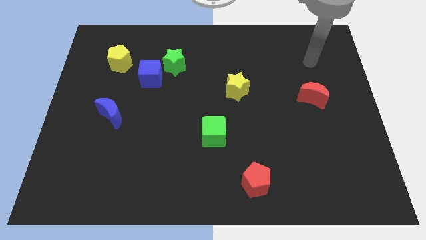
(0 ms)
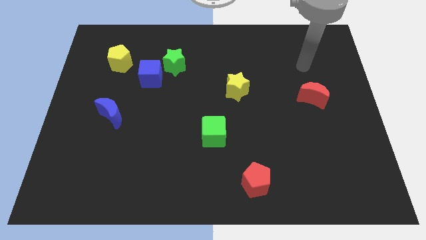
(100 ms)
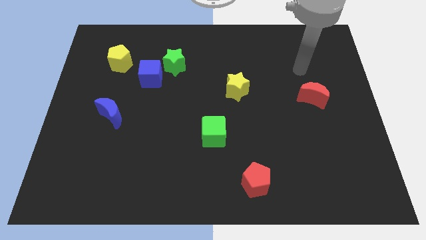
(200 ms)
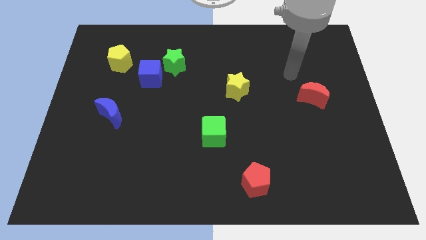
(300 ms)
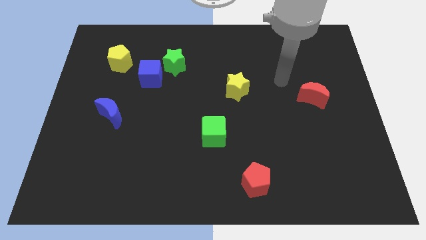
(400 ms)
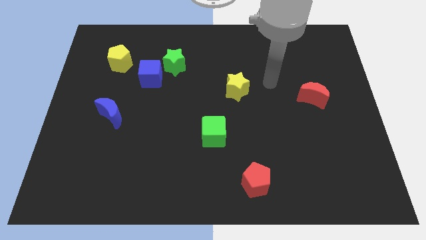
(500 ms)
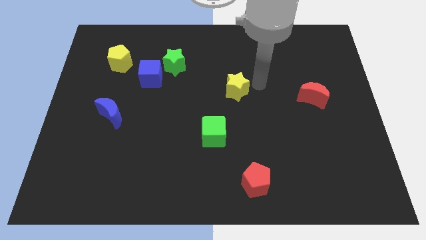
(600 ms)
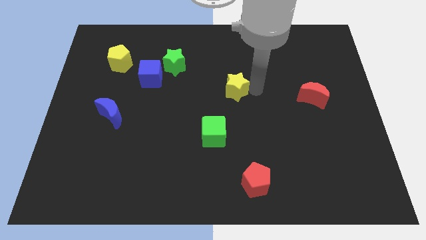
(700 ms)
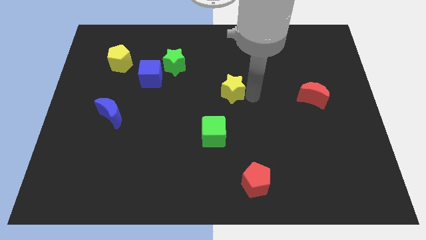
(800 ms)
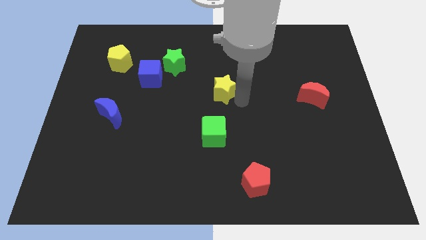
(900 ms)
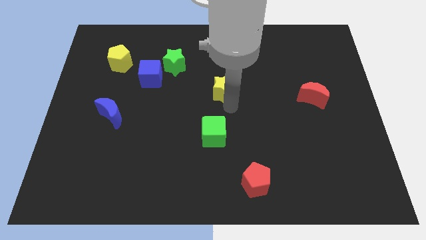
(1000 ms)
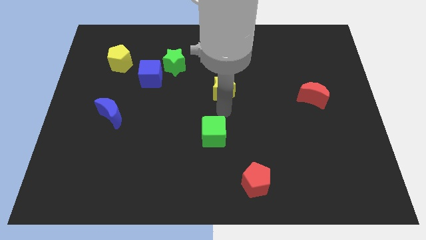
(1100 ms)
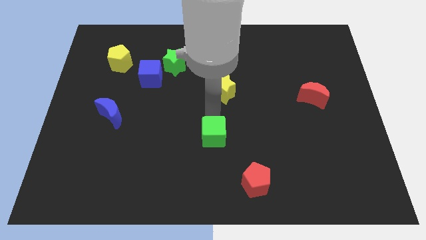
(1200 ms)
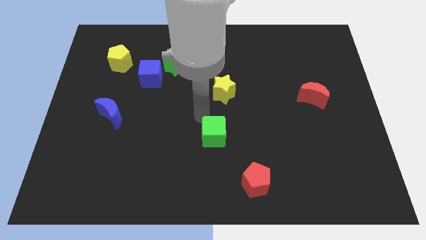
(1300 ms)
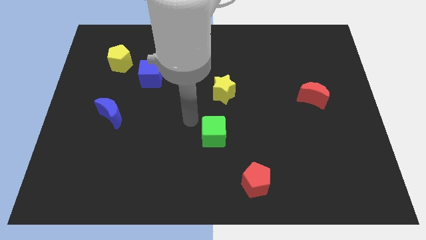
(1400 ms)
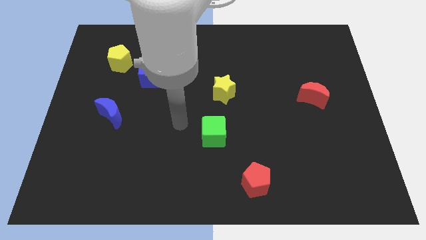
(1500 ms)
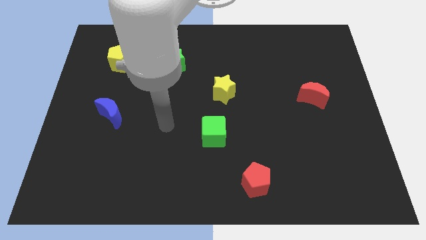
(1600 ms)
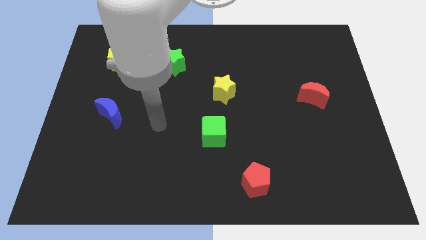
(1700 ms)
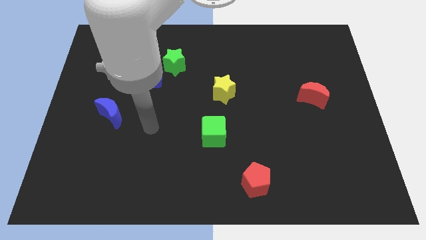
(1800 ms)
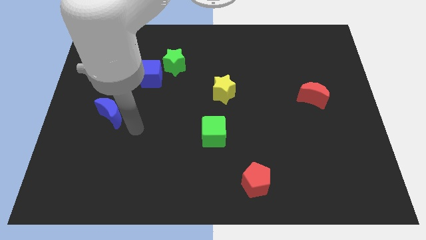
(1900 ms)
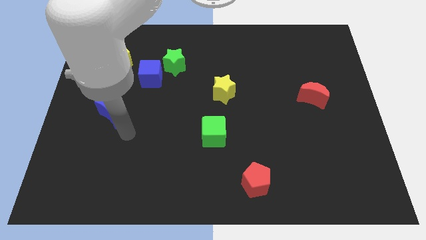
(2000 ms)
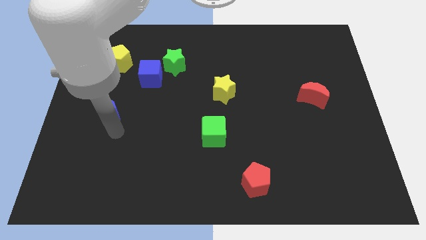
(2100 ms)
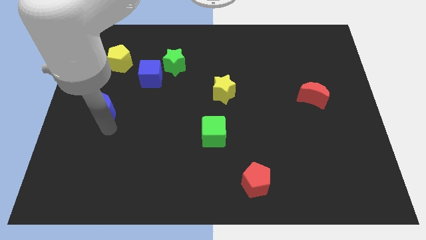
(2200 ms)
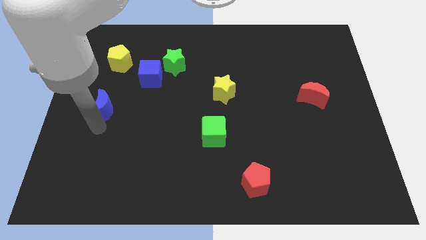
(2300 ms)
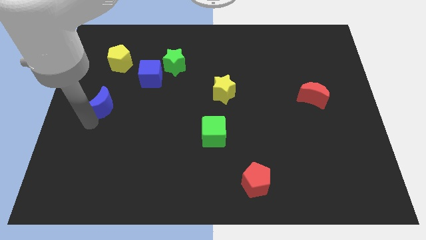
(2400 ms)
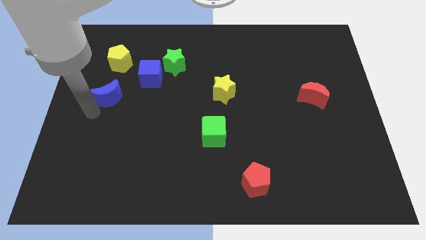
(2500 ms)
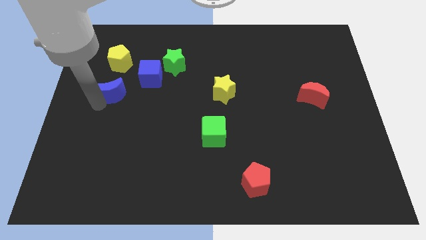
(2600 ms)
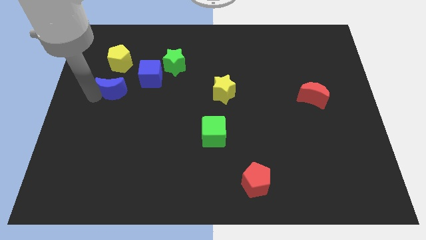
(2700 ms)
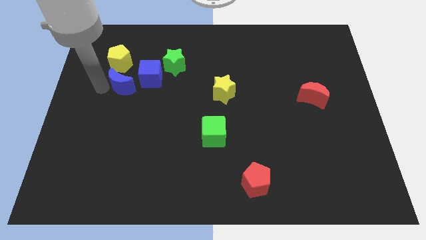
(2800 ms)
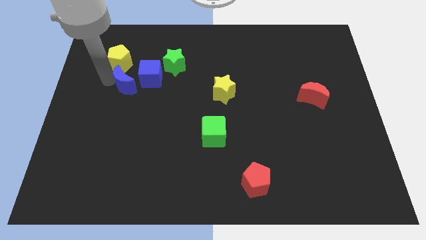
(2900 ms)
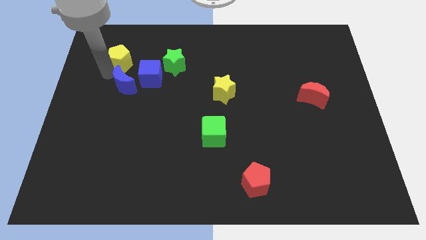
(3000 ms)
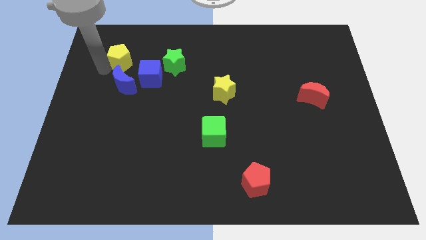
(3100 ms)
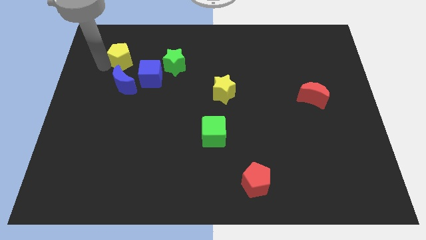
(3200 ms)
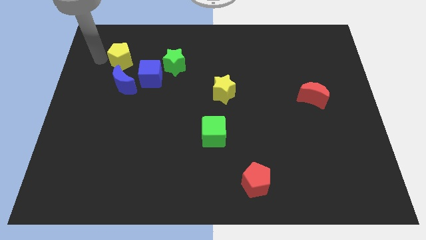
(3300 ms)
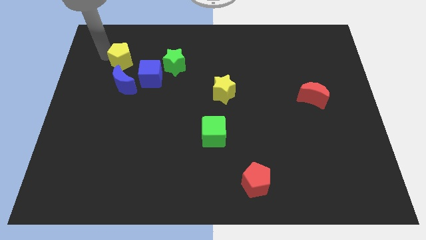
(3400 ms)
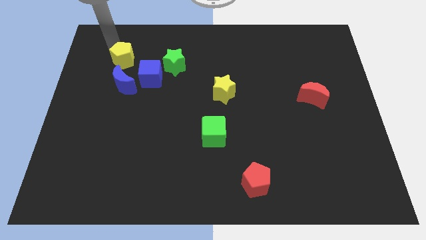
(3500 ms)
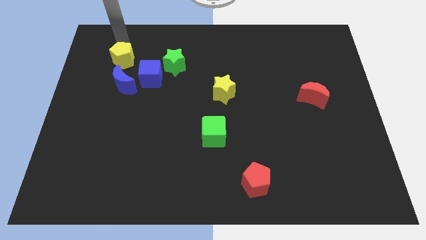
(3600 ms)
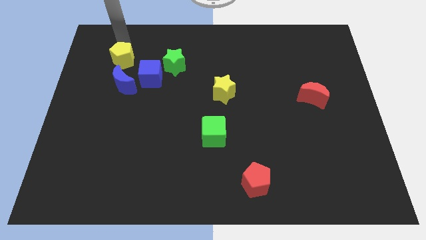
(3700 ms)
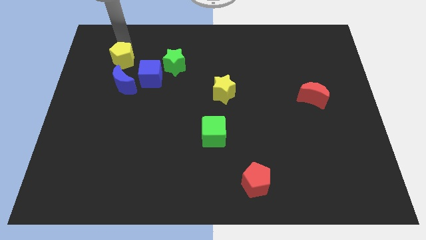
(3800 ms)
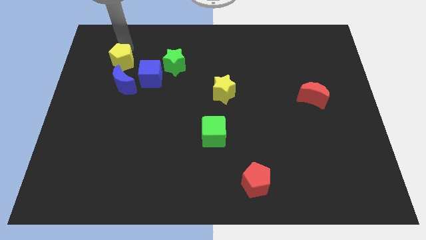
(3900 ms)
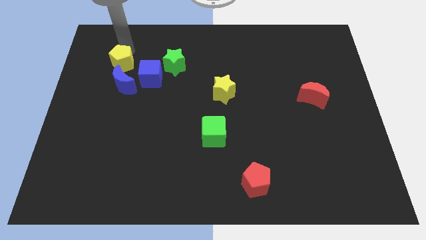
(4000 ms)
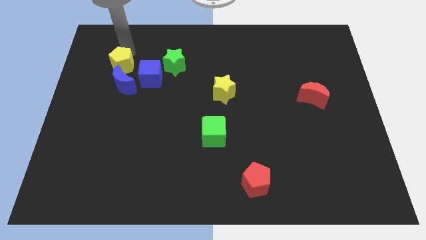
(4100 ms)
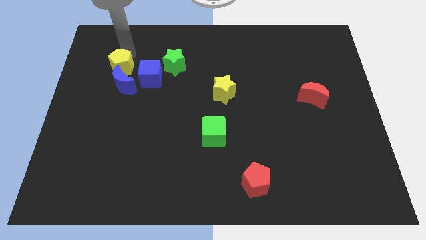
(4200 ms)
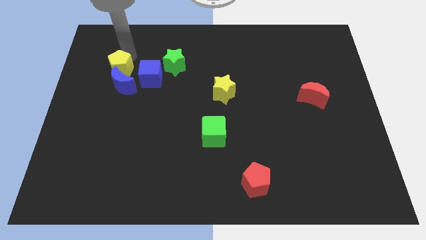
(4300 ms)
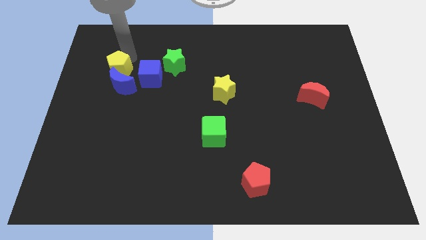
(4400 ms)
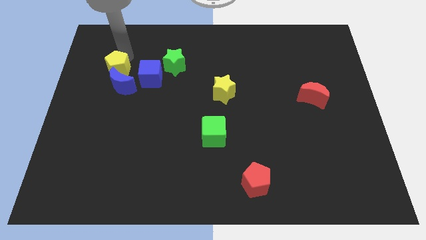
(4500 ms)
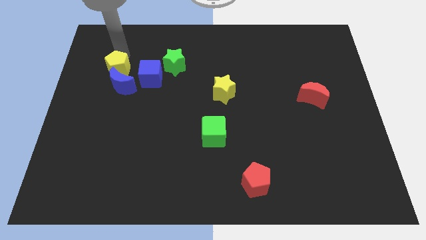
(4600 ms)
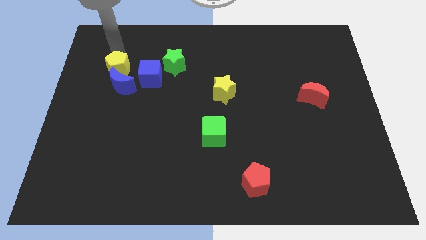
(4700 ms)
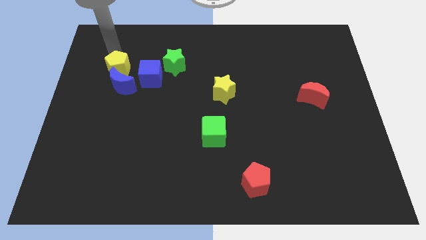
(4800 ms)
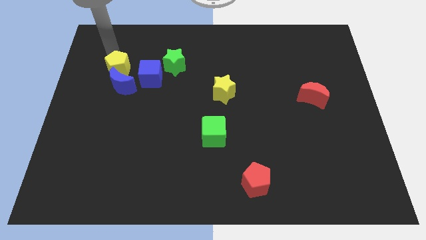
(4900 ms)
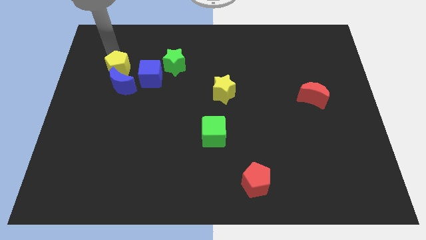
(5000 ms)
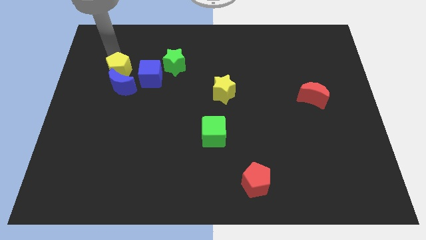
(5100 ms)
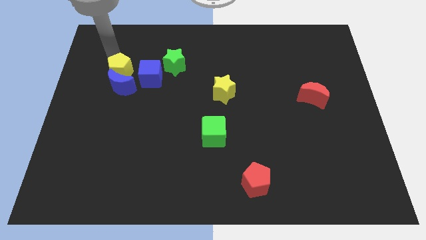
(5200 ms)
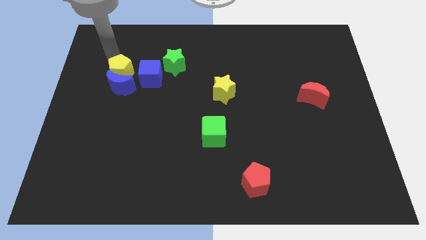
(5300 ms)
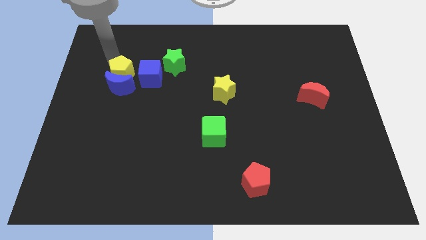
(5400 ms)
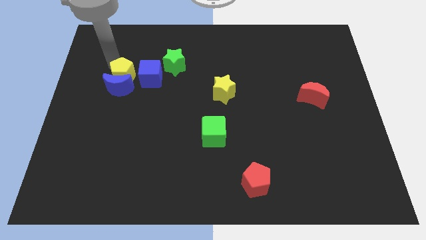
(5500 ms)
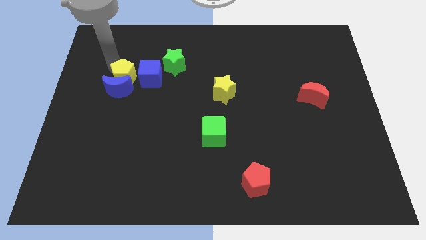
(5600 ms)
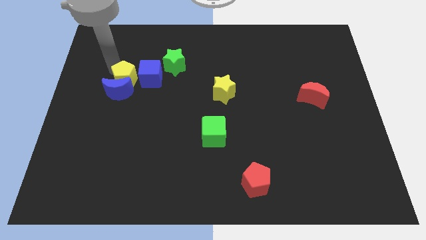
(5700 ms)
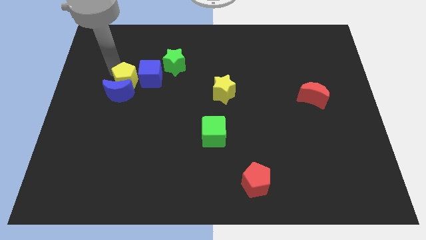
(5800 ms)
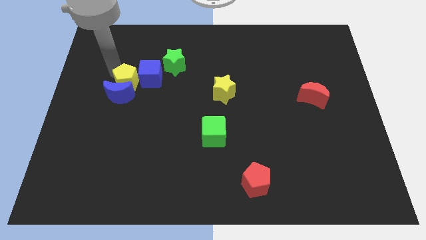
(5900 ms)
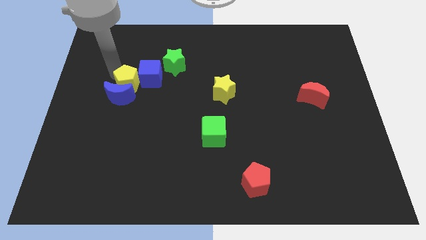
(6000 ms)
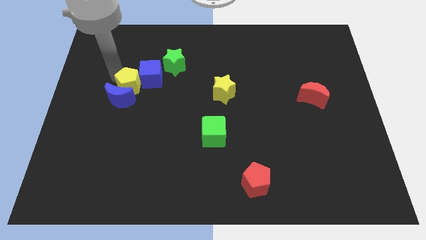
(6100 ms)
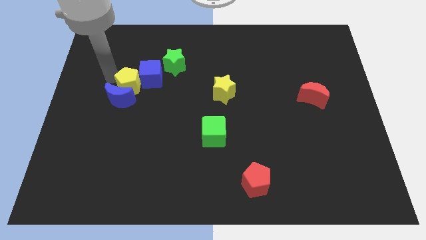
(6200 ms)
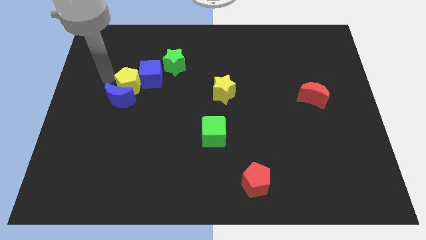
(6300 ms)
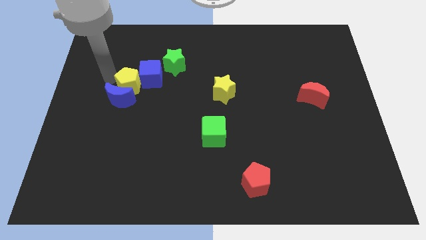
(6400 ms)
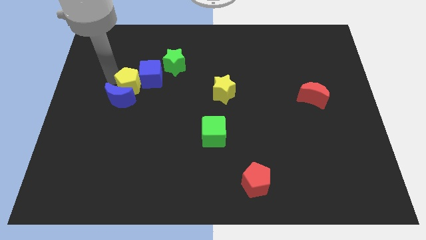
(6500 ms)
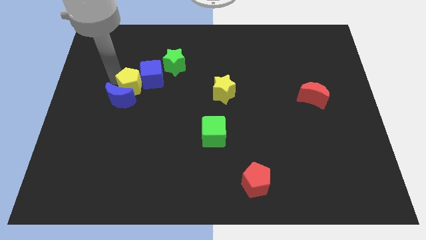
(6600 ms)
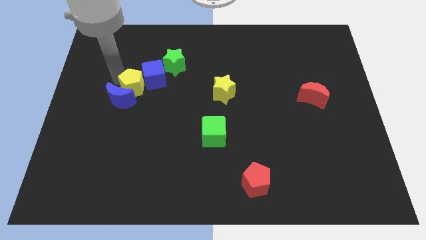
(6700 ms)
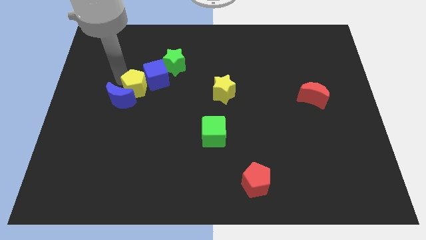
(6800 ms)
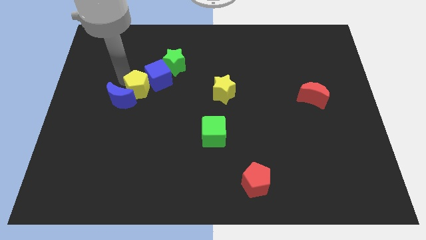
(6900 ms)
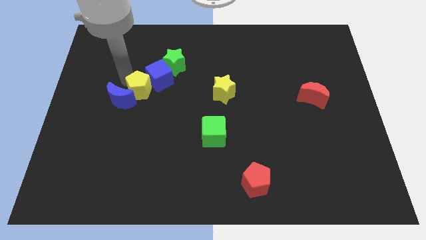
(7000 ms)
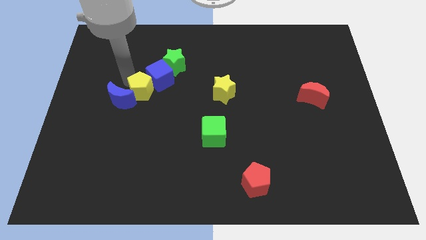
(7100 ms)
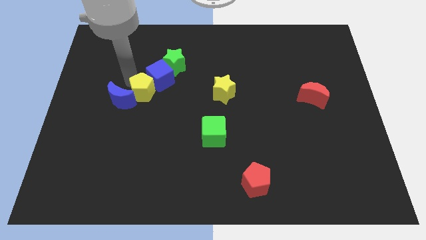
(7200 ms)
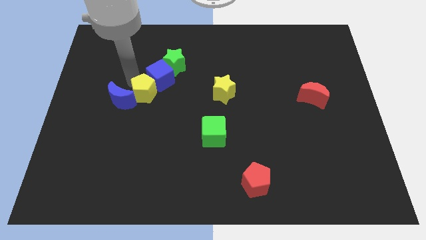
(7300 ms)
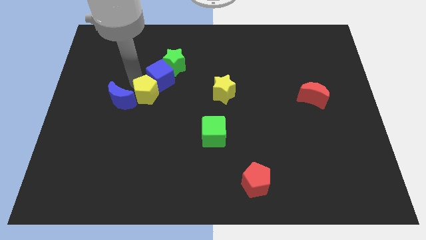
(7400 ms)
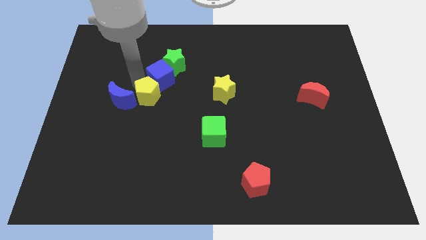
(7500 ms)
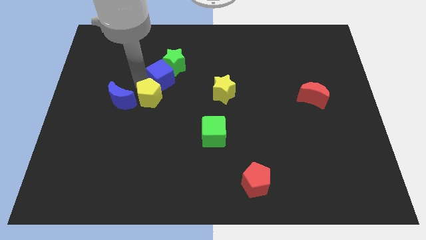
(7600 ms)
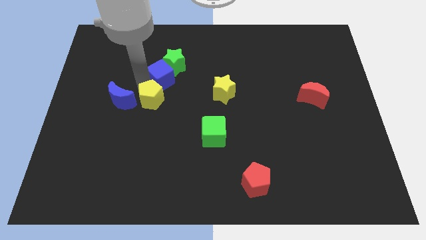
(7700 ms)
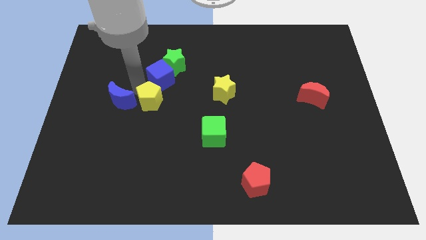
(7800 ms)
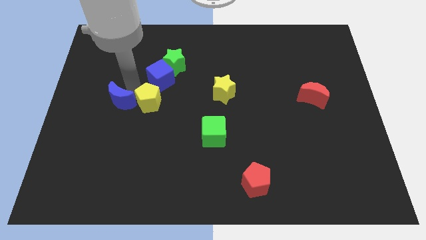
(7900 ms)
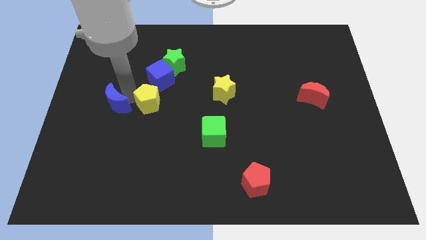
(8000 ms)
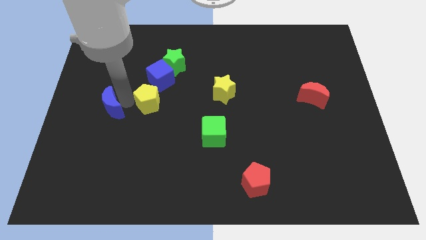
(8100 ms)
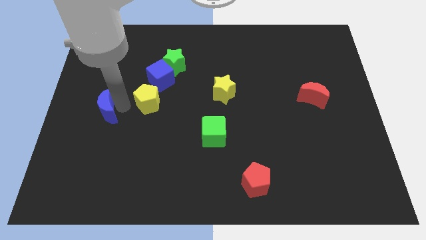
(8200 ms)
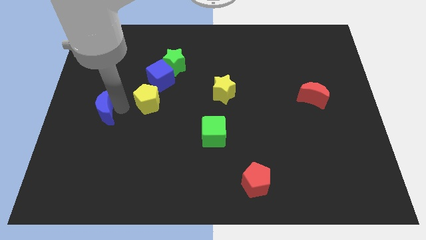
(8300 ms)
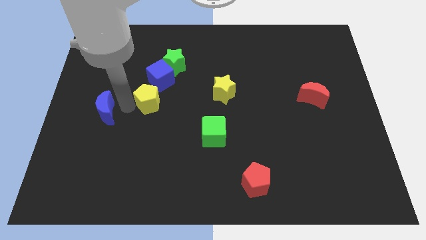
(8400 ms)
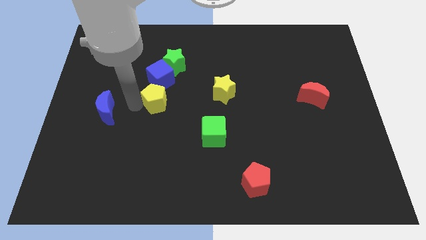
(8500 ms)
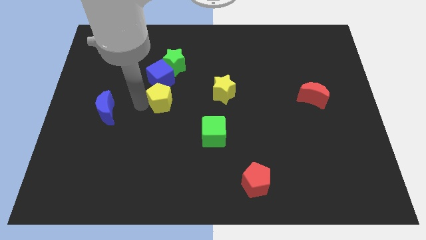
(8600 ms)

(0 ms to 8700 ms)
slide the yellow pentagon to the middle
